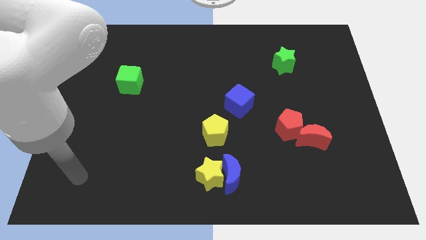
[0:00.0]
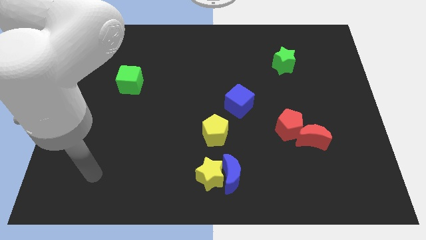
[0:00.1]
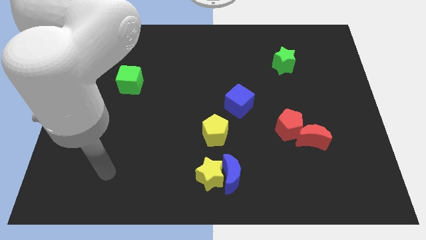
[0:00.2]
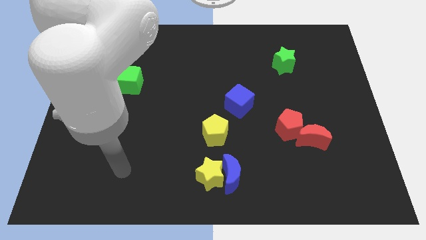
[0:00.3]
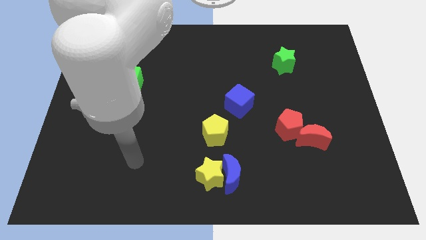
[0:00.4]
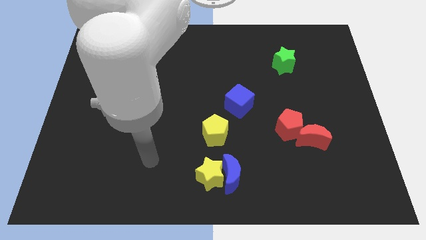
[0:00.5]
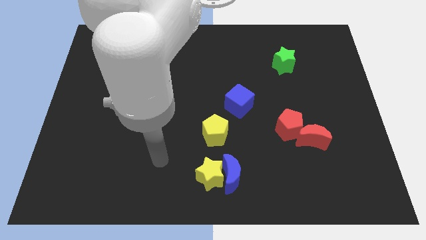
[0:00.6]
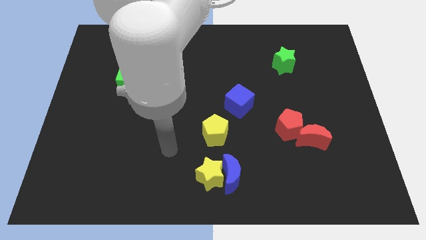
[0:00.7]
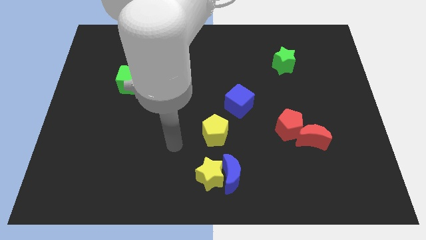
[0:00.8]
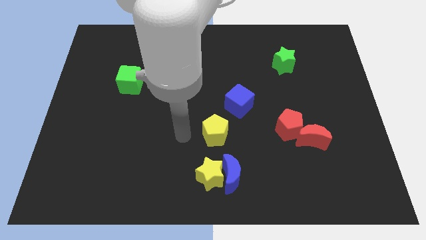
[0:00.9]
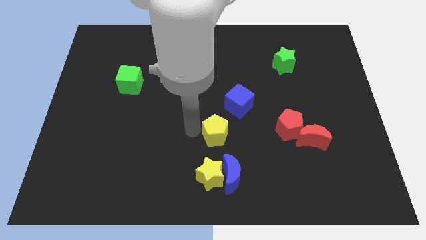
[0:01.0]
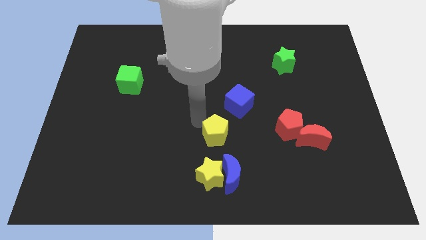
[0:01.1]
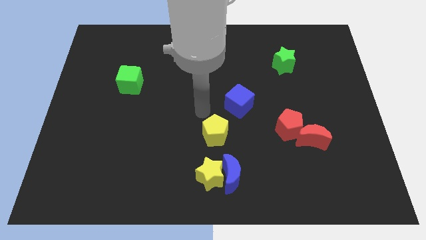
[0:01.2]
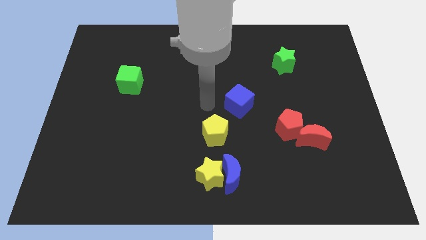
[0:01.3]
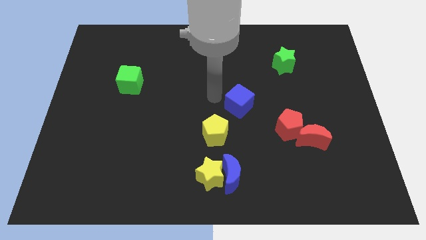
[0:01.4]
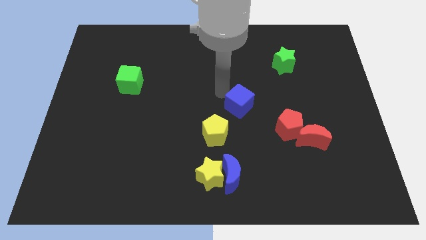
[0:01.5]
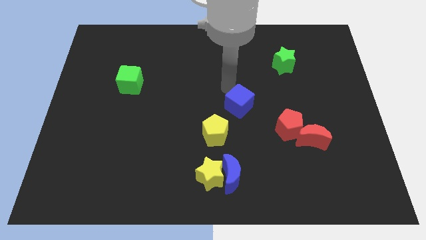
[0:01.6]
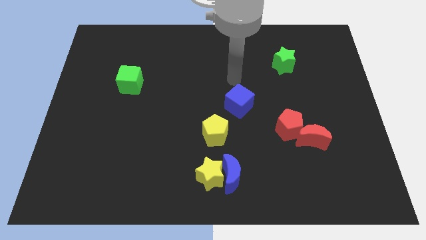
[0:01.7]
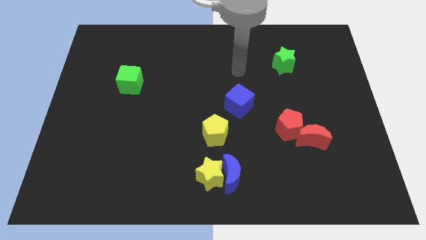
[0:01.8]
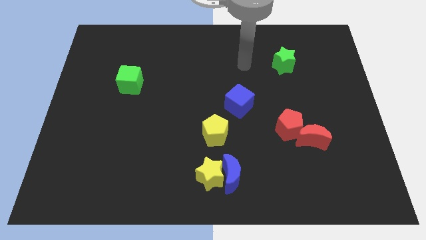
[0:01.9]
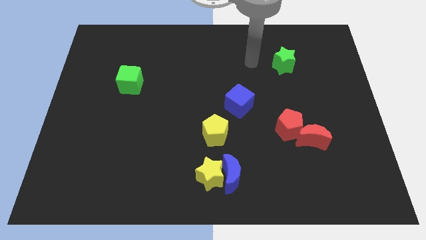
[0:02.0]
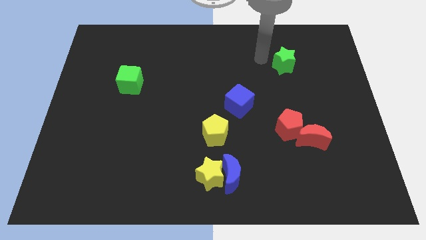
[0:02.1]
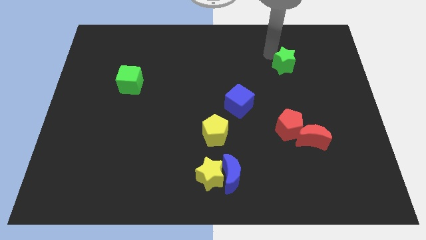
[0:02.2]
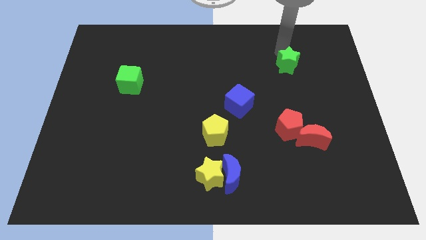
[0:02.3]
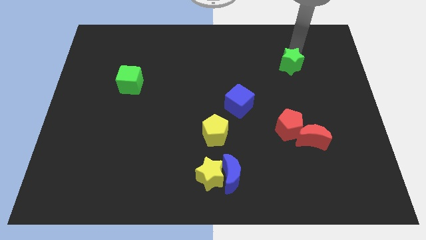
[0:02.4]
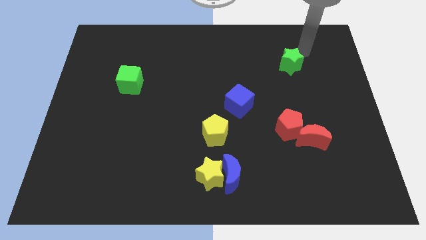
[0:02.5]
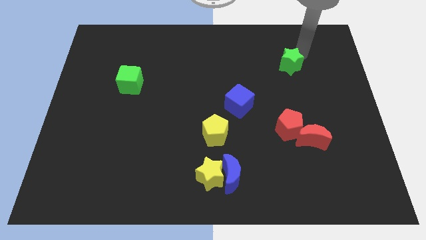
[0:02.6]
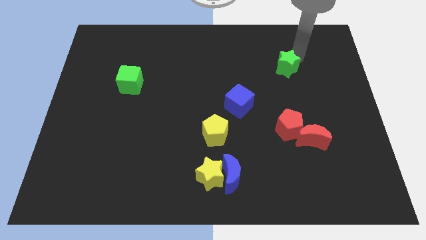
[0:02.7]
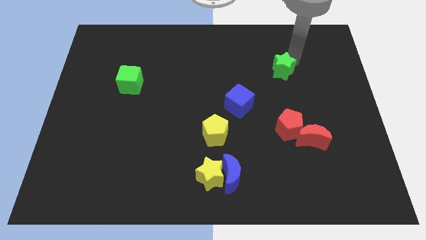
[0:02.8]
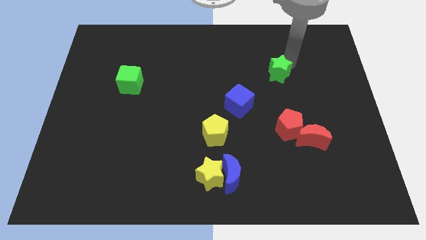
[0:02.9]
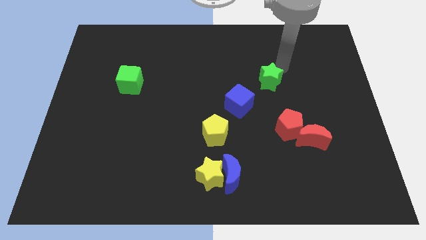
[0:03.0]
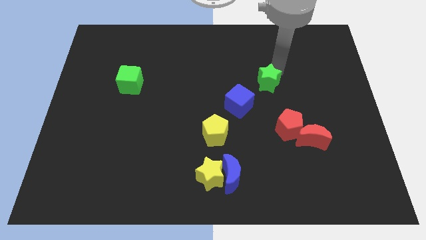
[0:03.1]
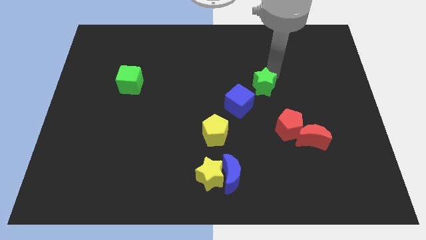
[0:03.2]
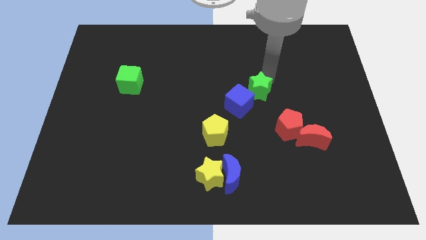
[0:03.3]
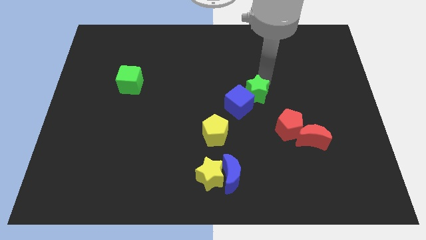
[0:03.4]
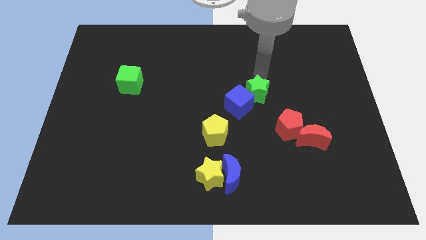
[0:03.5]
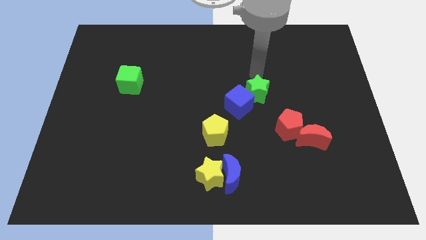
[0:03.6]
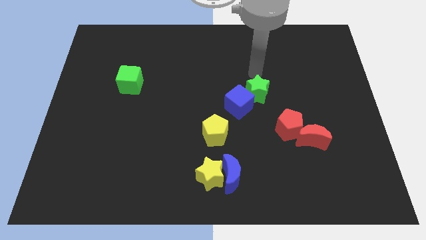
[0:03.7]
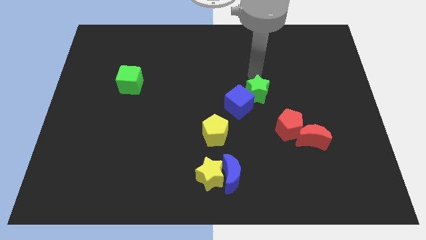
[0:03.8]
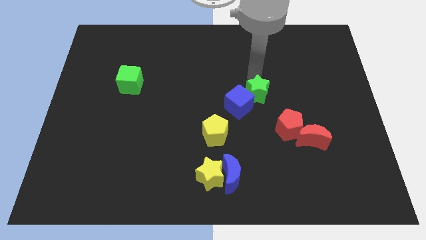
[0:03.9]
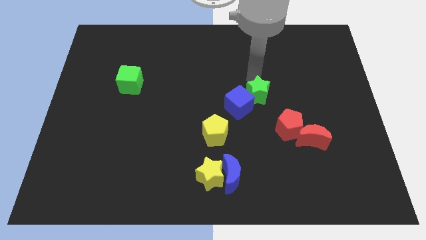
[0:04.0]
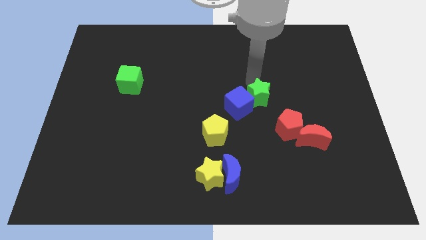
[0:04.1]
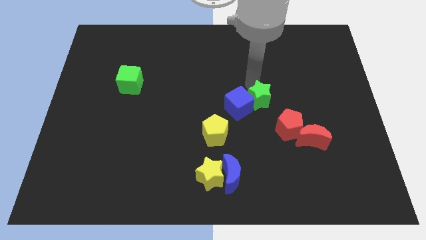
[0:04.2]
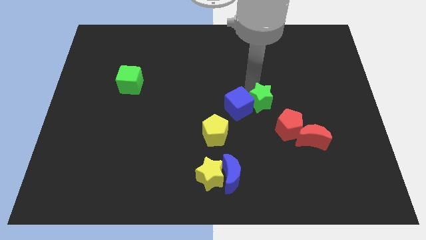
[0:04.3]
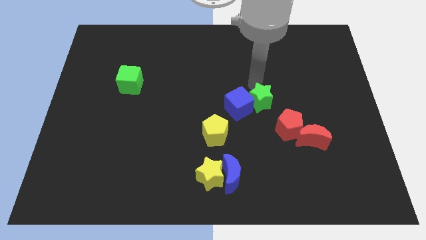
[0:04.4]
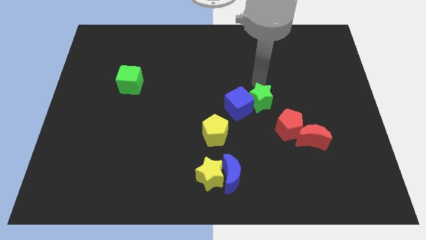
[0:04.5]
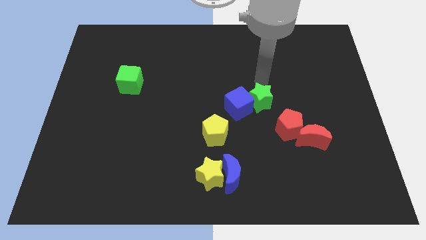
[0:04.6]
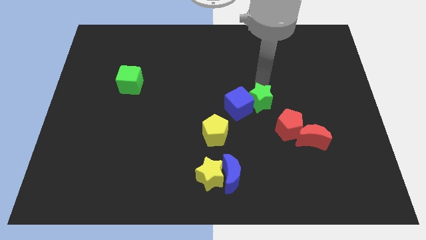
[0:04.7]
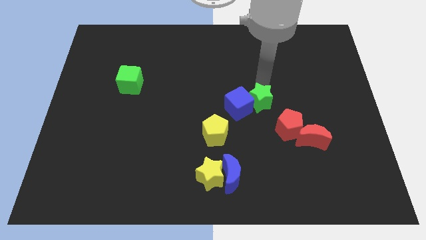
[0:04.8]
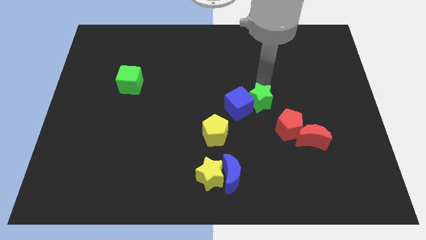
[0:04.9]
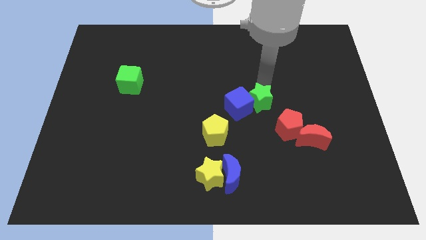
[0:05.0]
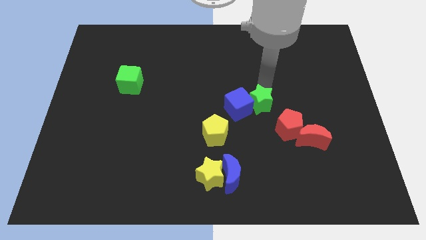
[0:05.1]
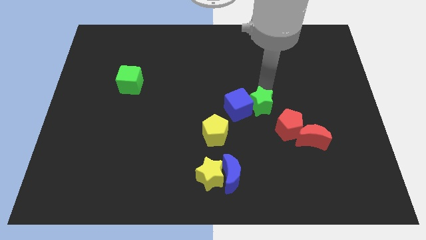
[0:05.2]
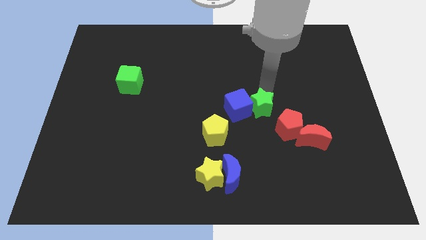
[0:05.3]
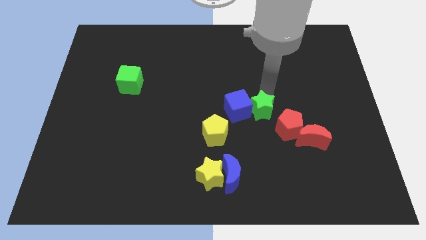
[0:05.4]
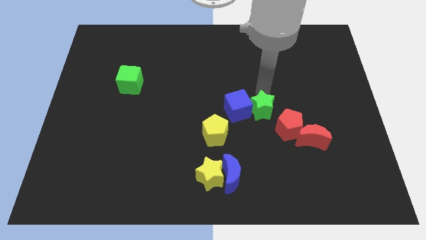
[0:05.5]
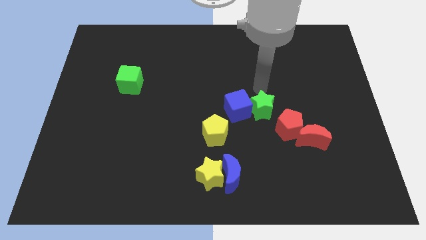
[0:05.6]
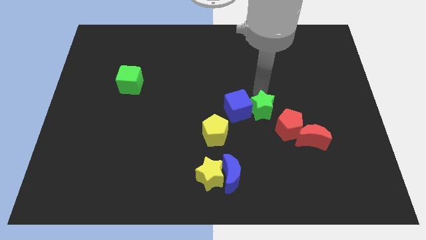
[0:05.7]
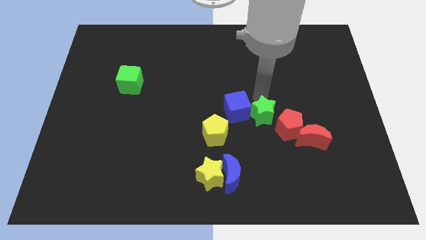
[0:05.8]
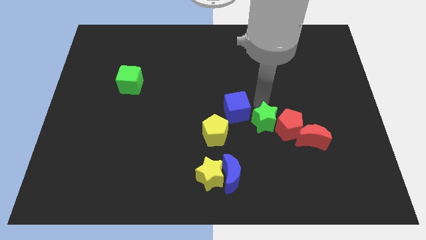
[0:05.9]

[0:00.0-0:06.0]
move the green star to the right side of the yellow pentagon

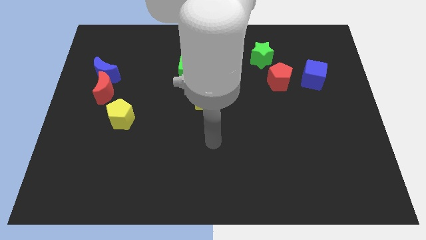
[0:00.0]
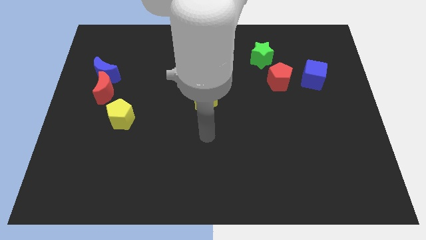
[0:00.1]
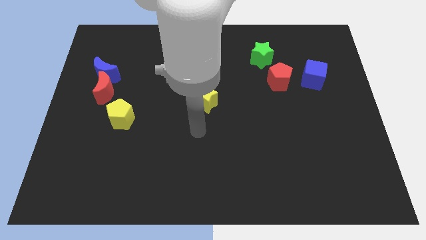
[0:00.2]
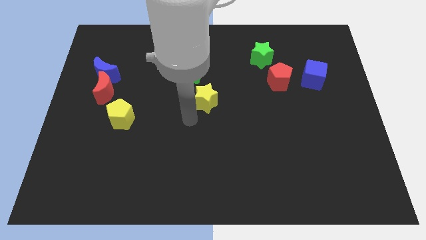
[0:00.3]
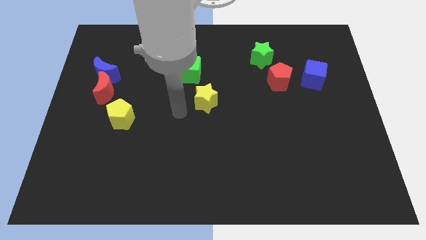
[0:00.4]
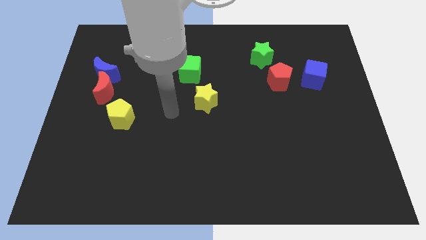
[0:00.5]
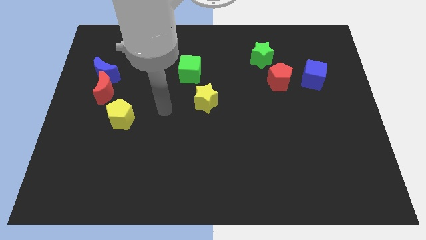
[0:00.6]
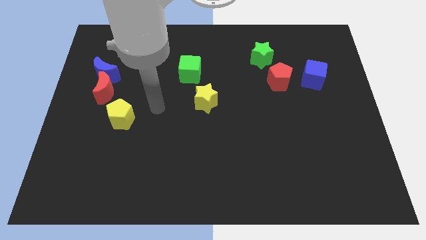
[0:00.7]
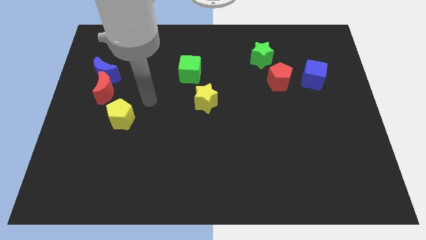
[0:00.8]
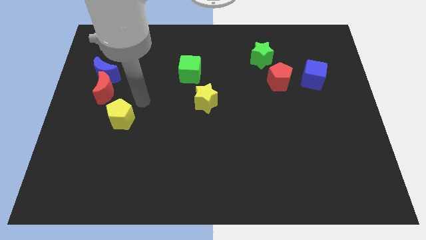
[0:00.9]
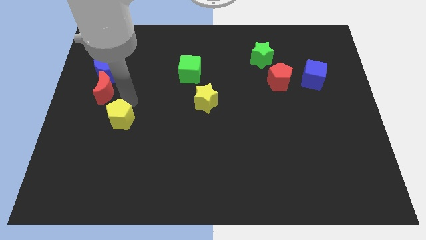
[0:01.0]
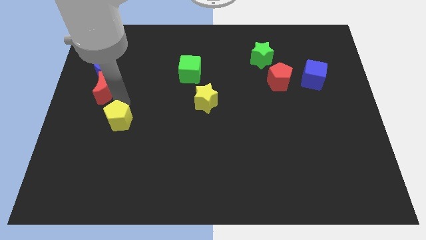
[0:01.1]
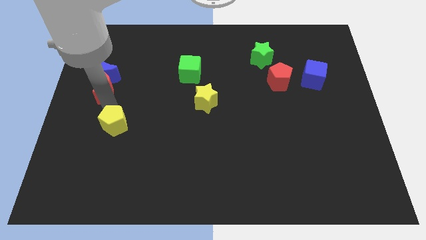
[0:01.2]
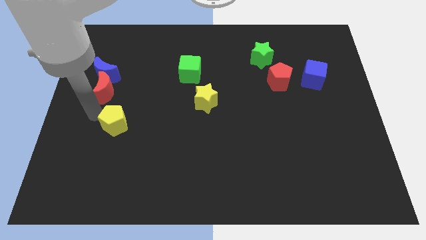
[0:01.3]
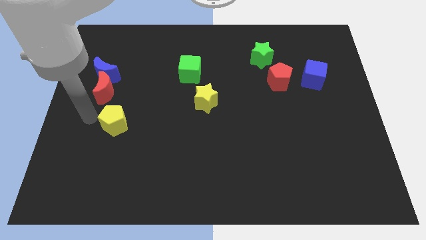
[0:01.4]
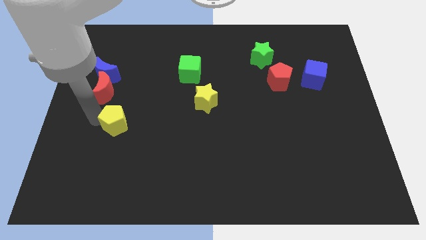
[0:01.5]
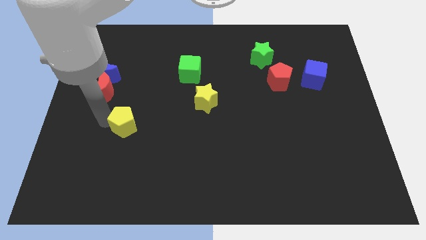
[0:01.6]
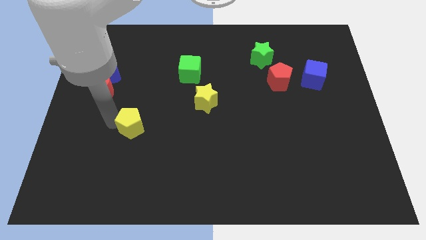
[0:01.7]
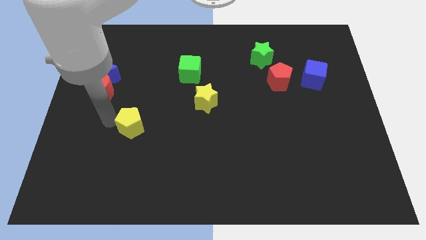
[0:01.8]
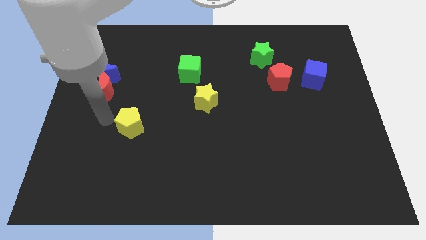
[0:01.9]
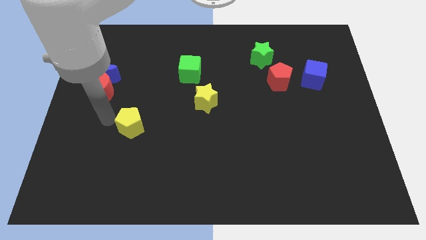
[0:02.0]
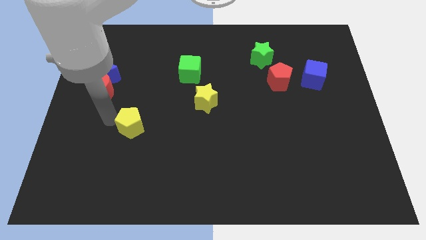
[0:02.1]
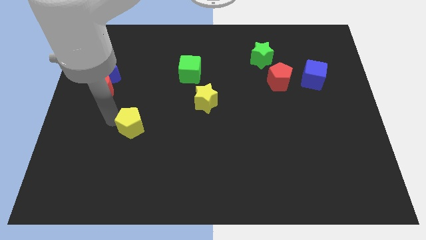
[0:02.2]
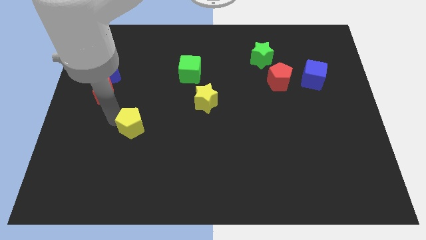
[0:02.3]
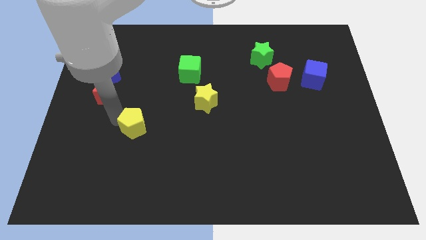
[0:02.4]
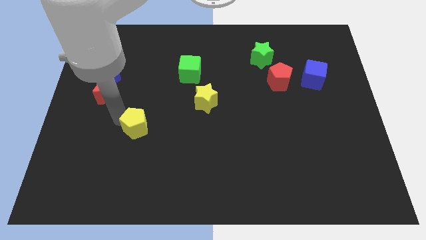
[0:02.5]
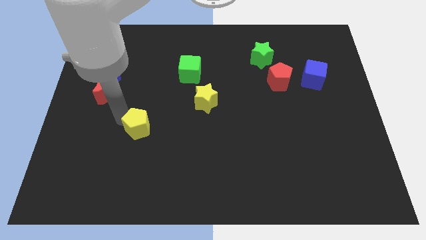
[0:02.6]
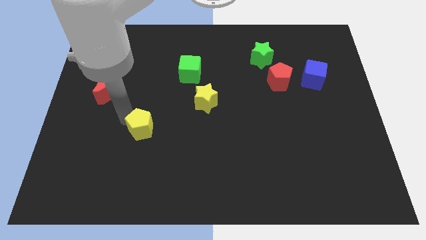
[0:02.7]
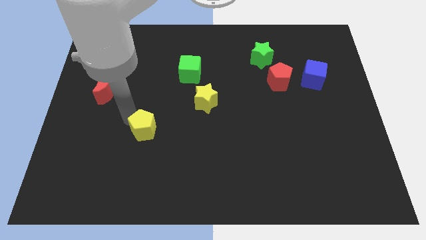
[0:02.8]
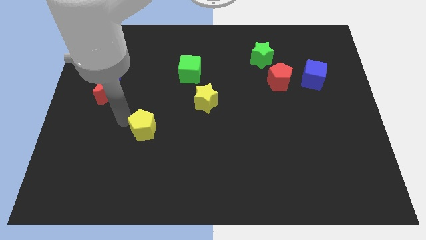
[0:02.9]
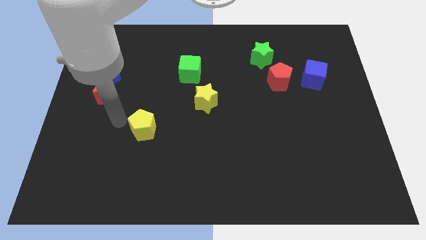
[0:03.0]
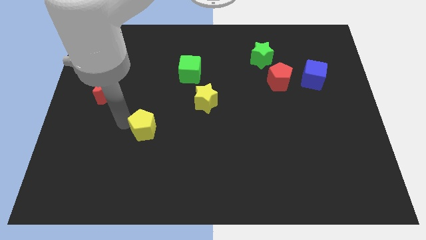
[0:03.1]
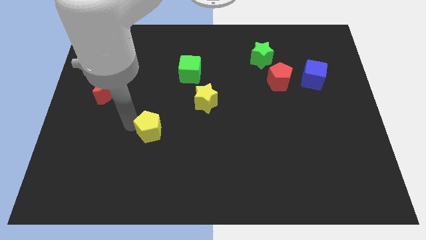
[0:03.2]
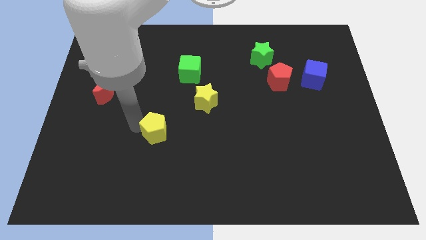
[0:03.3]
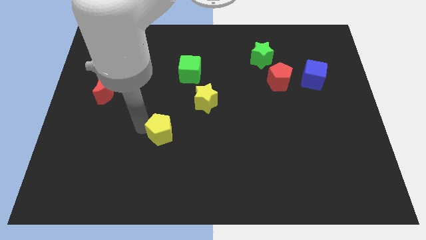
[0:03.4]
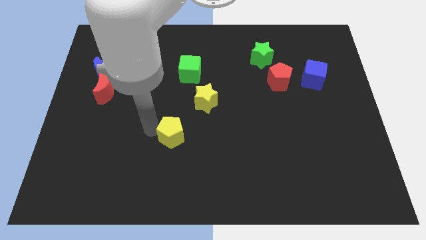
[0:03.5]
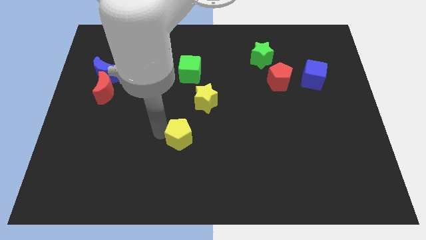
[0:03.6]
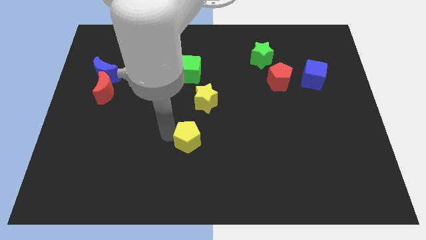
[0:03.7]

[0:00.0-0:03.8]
move the yellow pentagon to the bottom side of the yellow star
